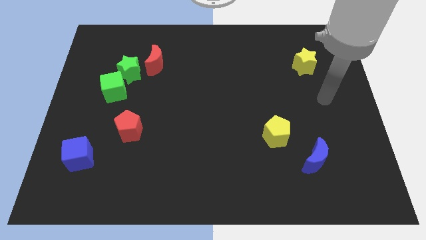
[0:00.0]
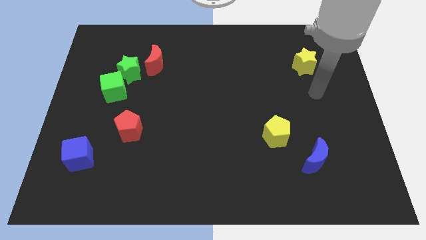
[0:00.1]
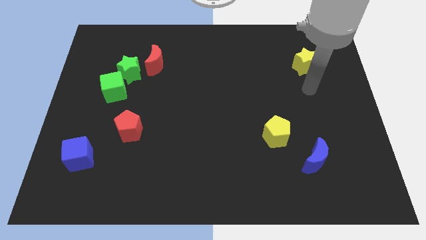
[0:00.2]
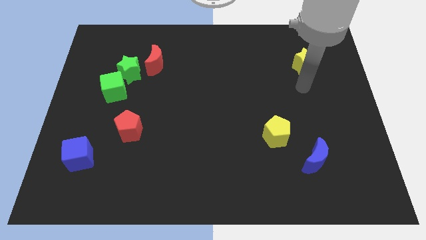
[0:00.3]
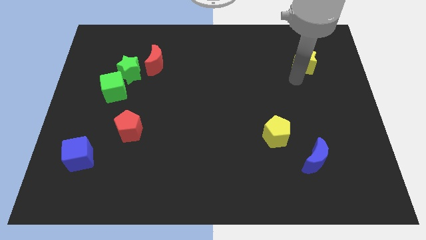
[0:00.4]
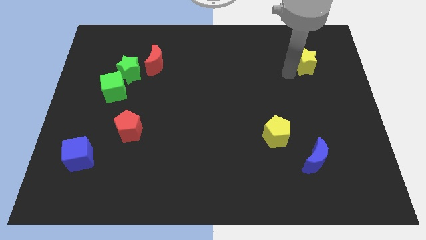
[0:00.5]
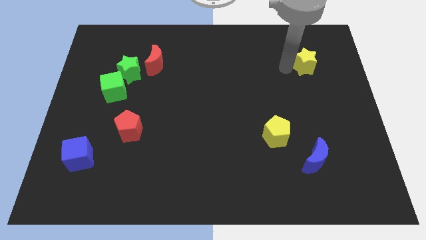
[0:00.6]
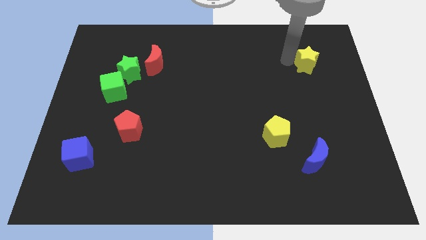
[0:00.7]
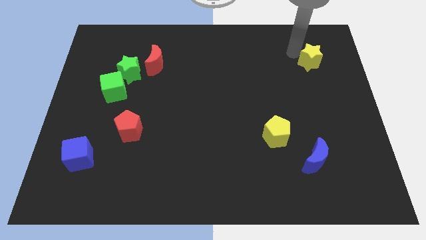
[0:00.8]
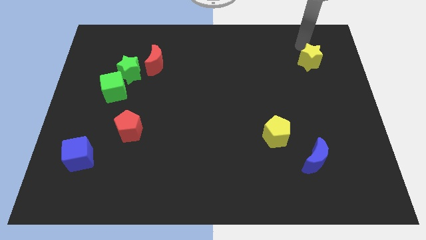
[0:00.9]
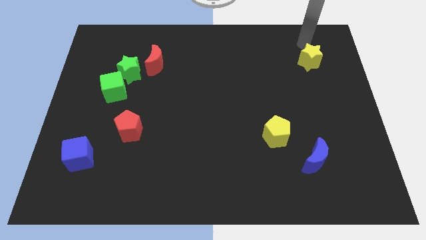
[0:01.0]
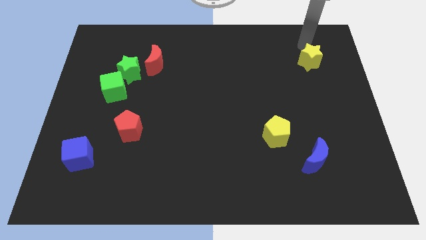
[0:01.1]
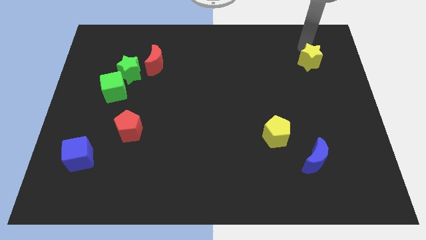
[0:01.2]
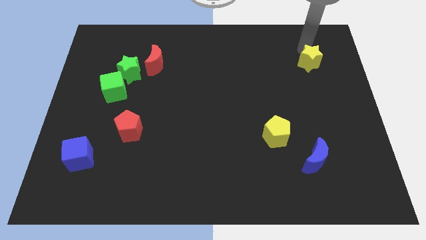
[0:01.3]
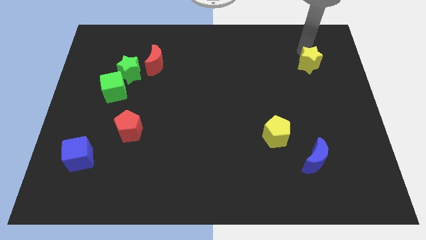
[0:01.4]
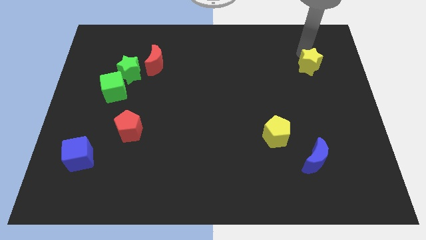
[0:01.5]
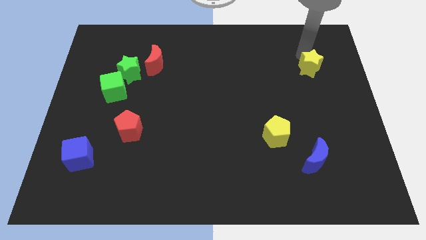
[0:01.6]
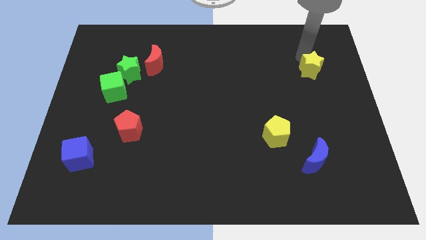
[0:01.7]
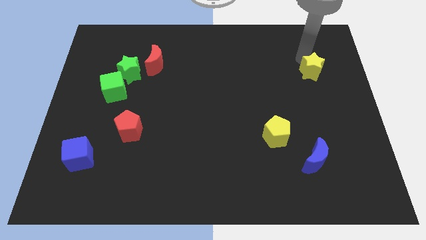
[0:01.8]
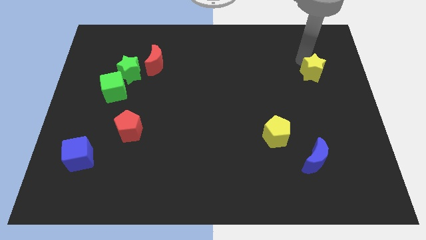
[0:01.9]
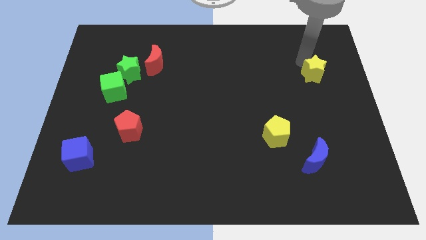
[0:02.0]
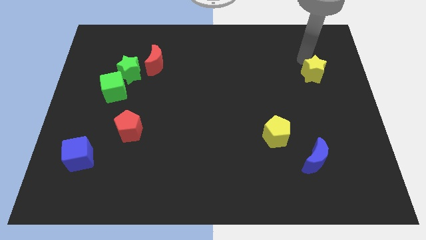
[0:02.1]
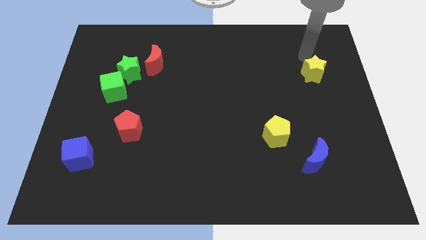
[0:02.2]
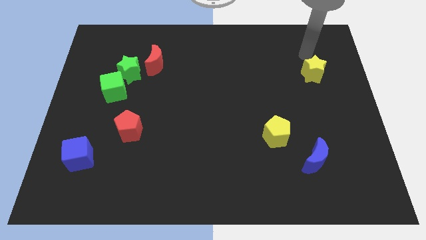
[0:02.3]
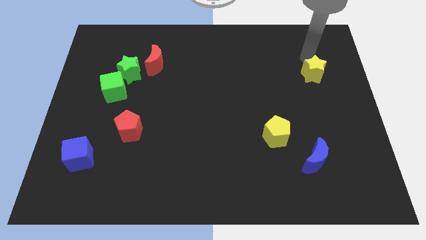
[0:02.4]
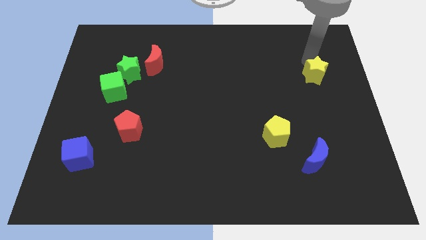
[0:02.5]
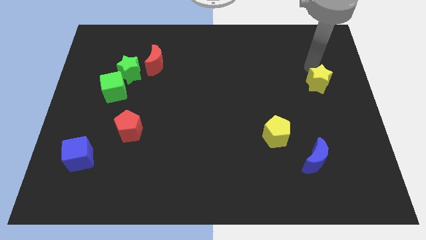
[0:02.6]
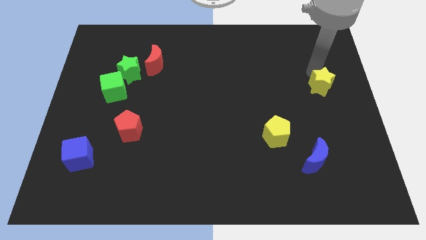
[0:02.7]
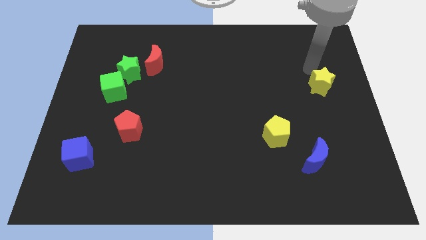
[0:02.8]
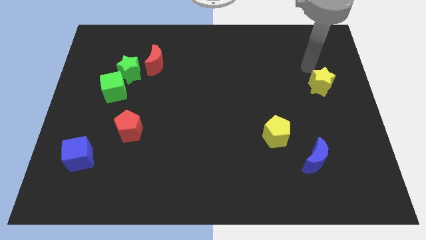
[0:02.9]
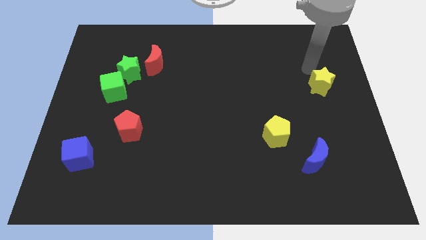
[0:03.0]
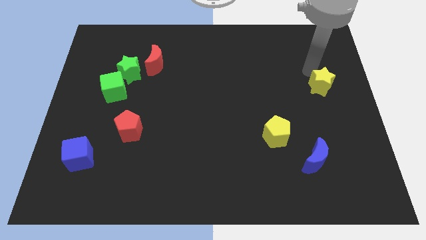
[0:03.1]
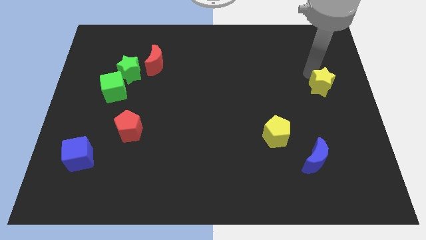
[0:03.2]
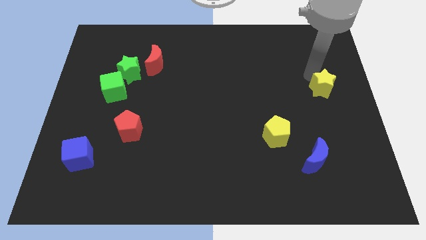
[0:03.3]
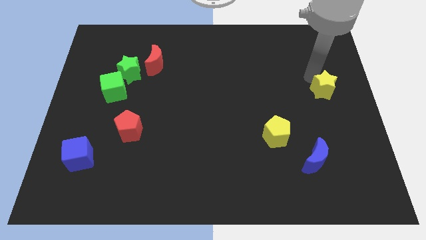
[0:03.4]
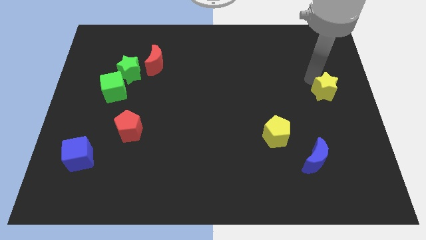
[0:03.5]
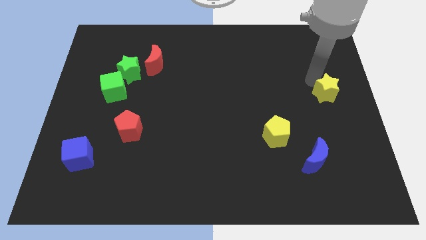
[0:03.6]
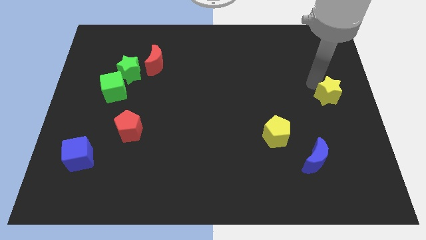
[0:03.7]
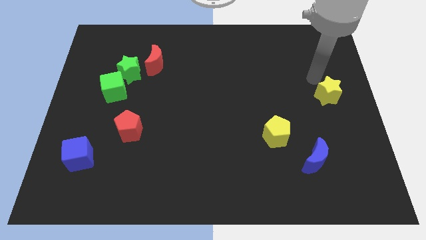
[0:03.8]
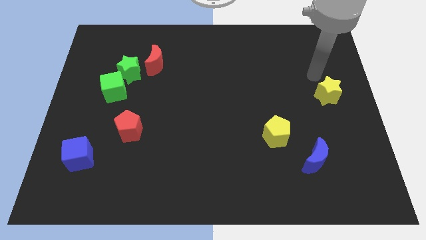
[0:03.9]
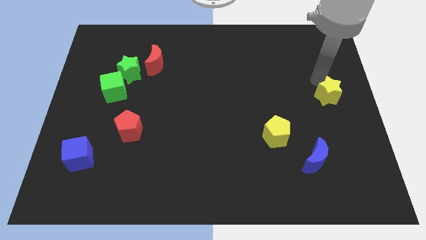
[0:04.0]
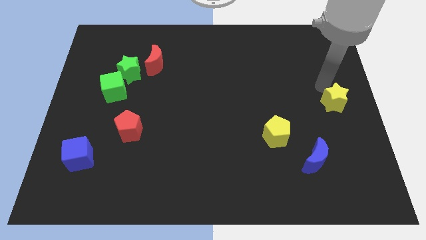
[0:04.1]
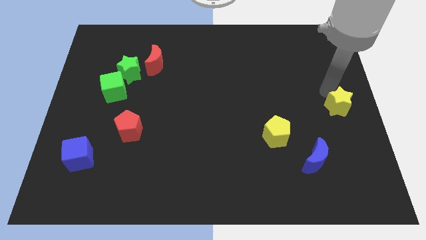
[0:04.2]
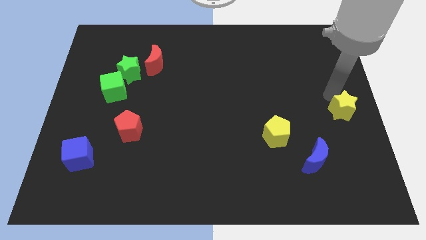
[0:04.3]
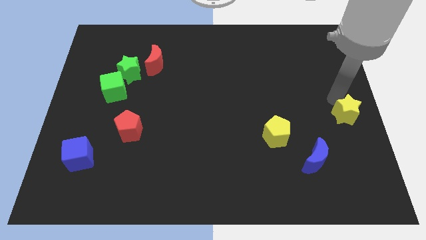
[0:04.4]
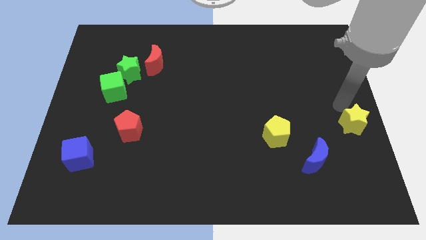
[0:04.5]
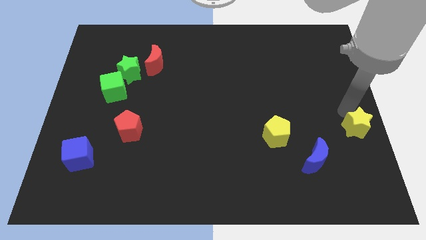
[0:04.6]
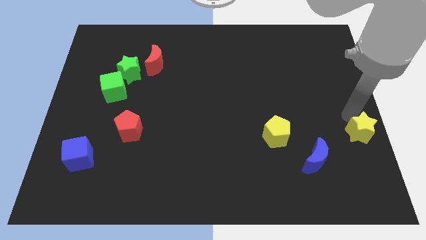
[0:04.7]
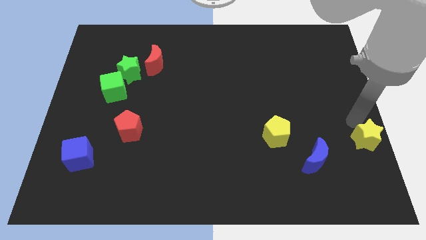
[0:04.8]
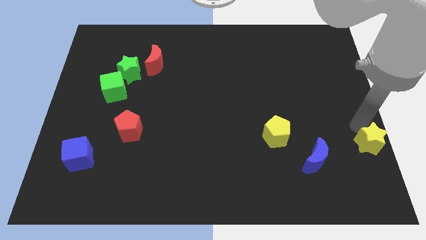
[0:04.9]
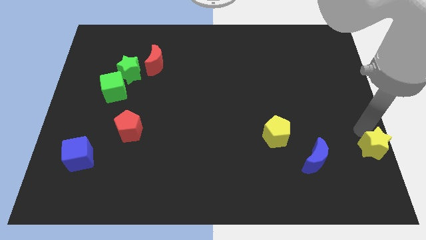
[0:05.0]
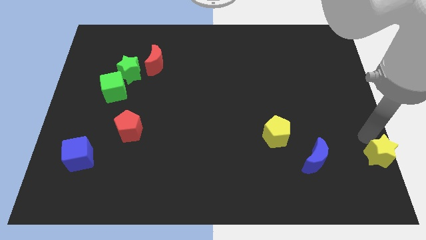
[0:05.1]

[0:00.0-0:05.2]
put the yellow star to the bottom right

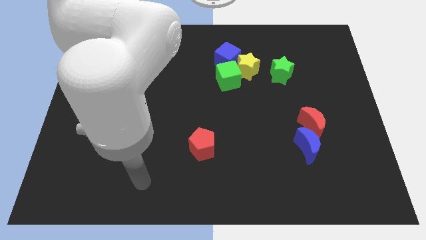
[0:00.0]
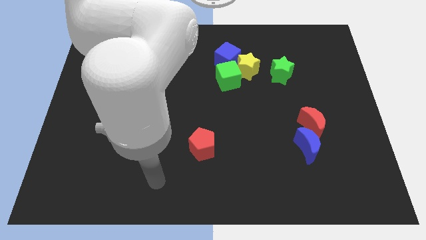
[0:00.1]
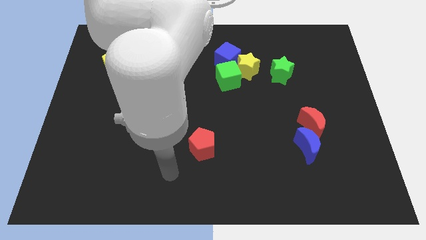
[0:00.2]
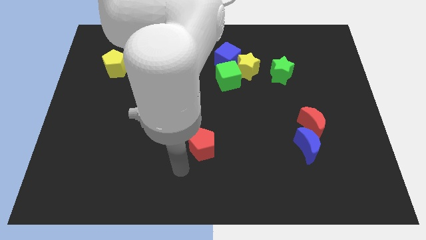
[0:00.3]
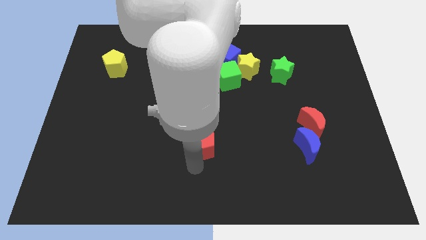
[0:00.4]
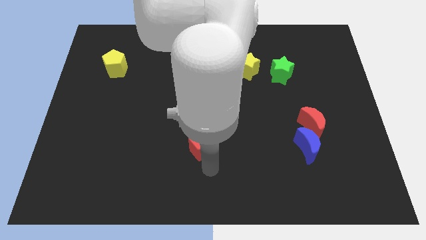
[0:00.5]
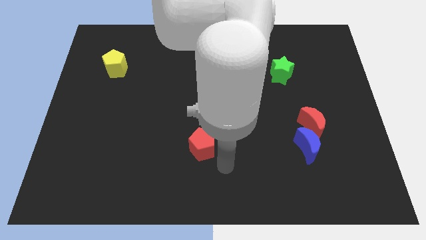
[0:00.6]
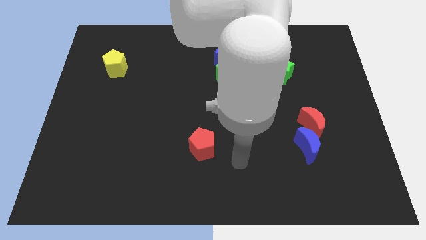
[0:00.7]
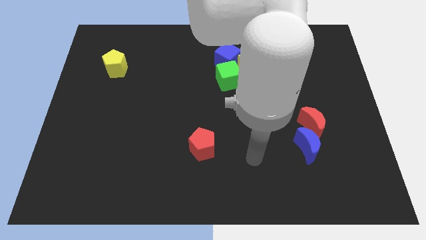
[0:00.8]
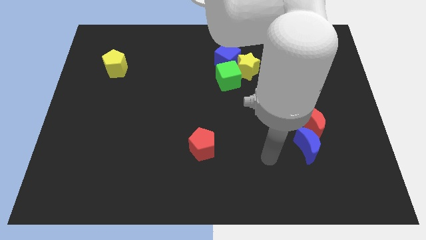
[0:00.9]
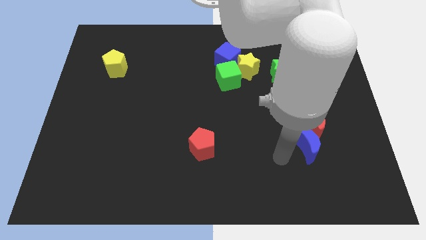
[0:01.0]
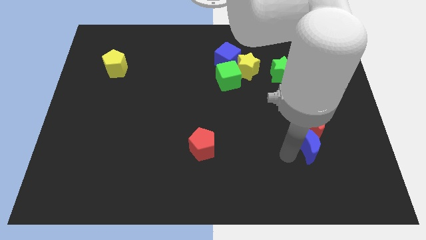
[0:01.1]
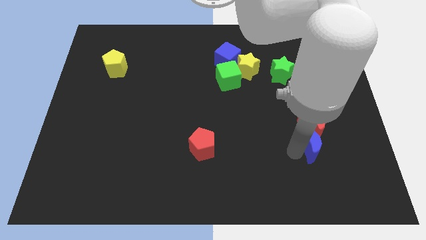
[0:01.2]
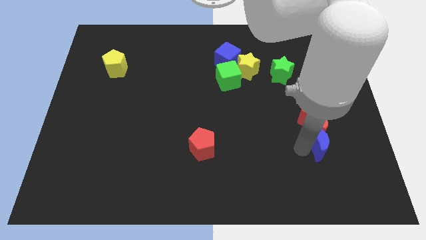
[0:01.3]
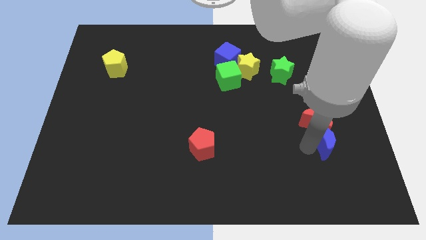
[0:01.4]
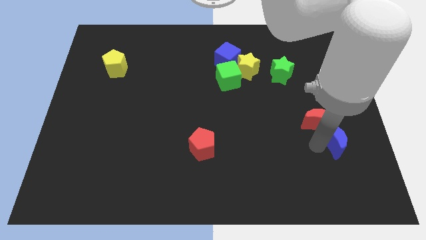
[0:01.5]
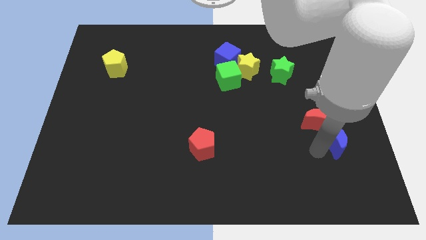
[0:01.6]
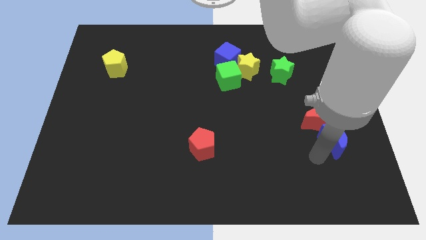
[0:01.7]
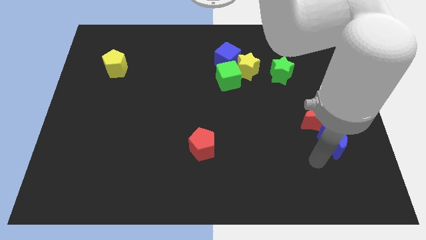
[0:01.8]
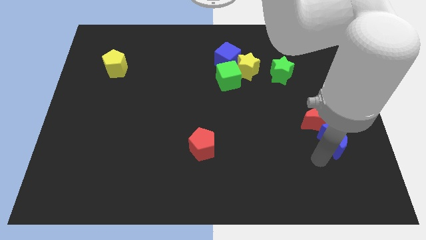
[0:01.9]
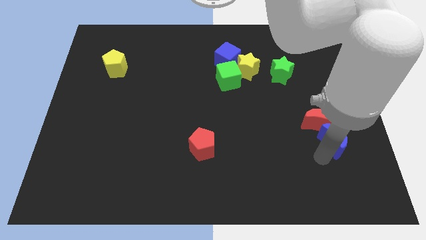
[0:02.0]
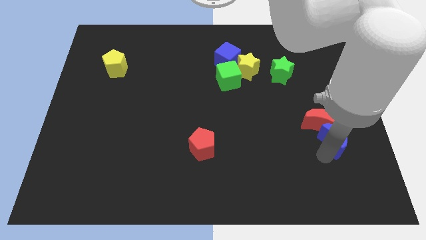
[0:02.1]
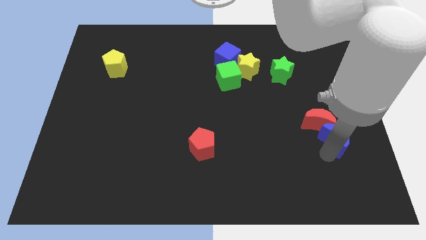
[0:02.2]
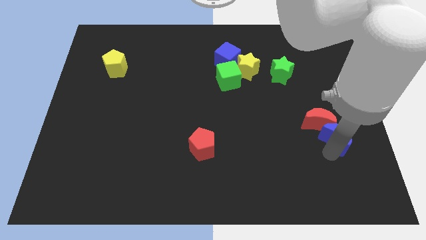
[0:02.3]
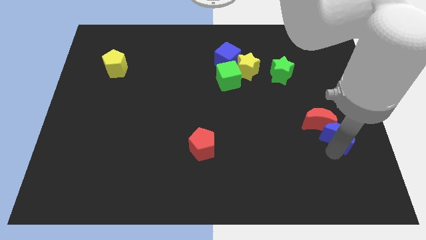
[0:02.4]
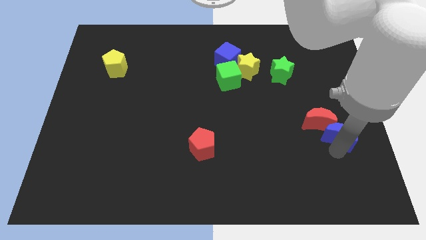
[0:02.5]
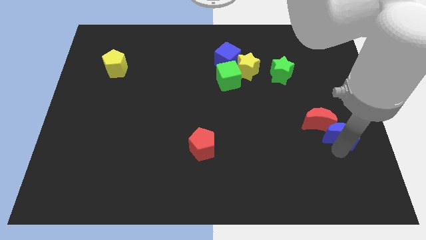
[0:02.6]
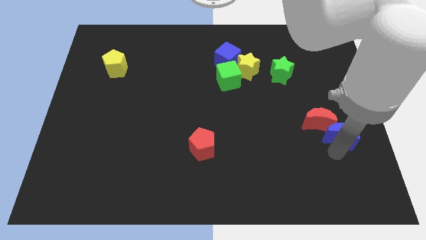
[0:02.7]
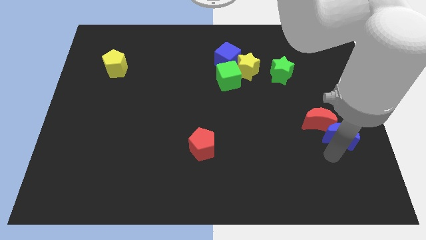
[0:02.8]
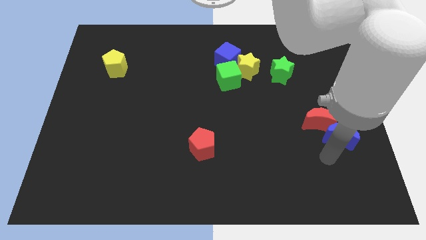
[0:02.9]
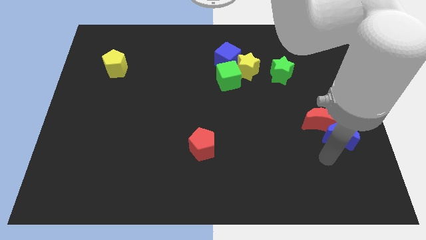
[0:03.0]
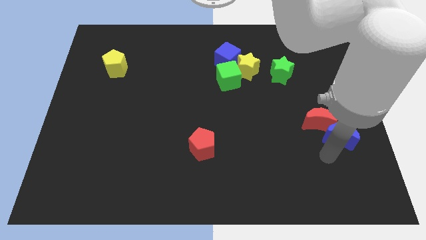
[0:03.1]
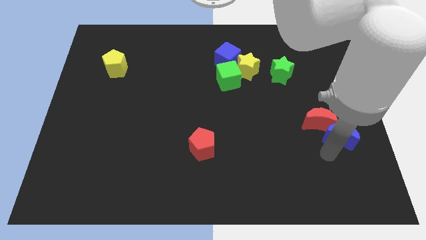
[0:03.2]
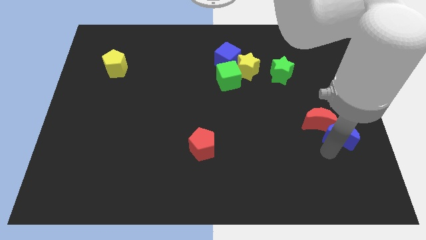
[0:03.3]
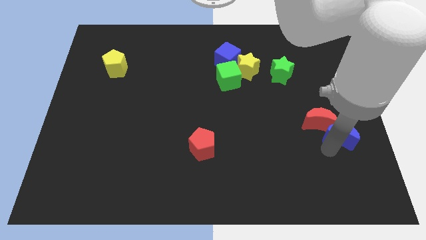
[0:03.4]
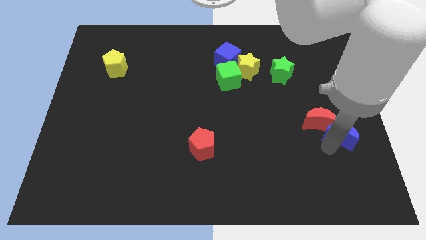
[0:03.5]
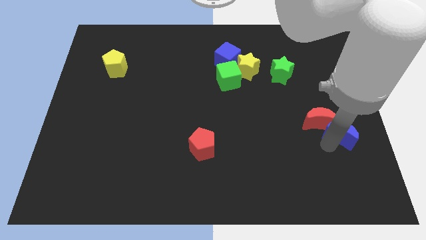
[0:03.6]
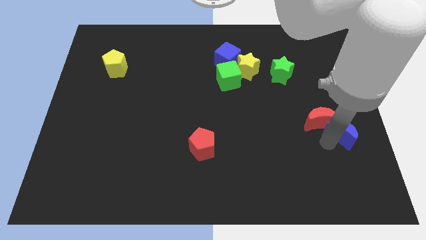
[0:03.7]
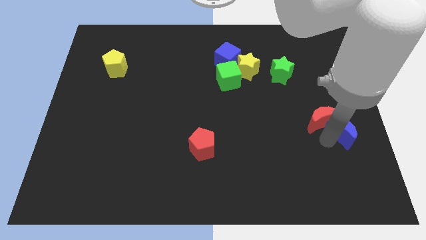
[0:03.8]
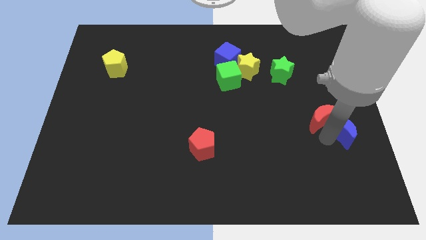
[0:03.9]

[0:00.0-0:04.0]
slide the blue moon to the center right
